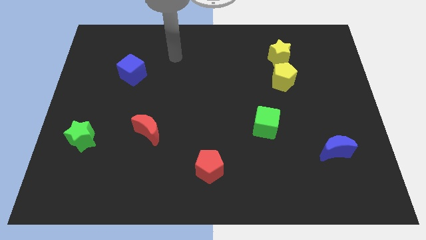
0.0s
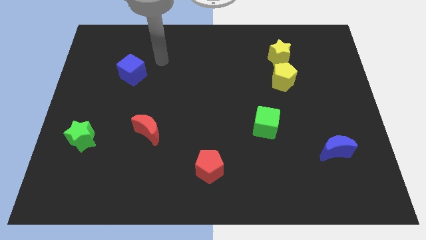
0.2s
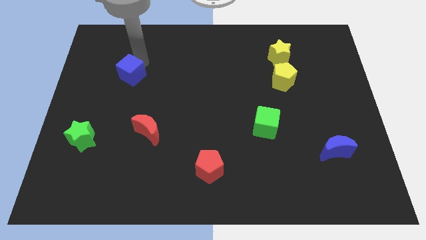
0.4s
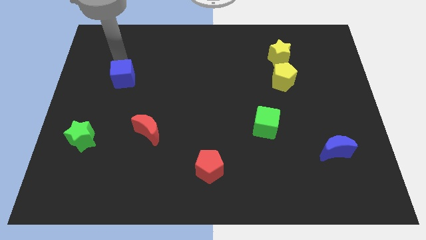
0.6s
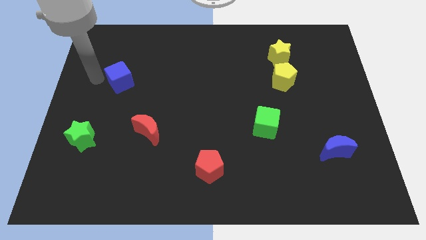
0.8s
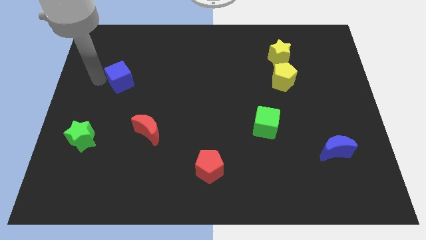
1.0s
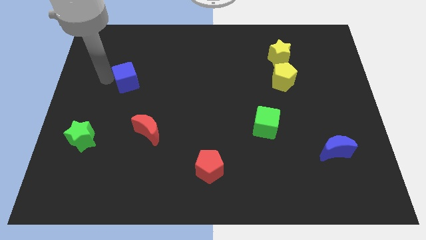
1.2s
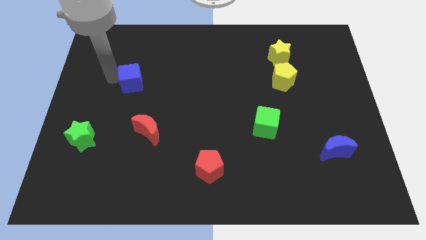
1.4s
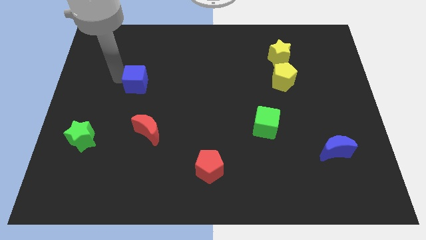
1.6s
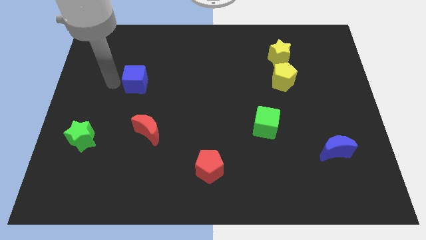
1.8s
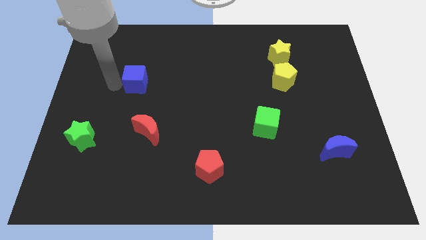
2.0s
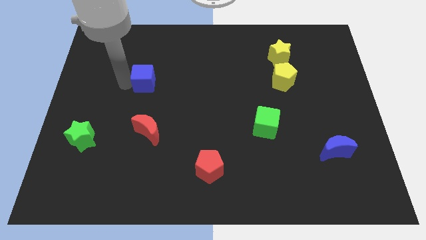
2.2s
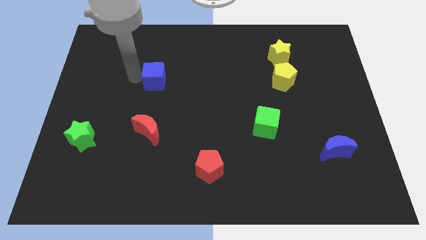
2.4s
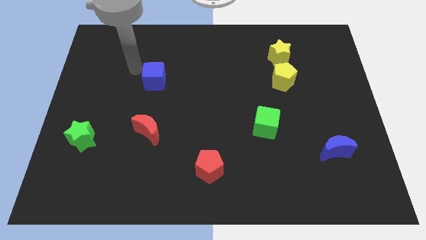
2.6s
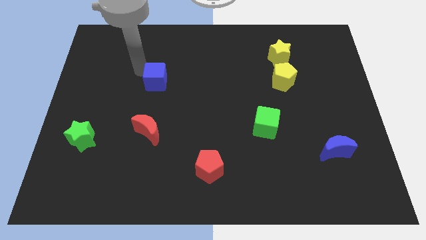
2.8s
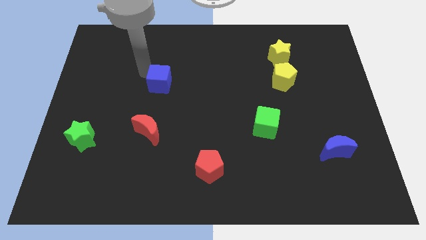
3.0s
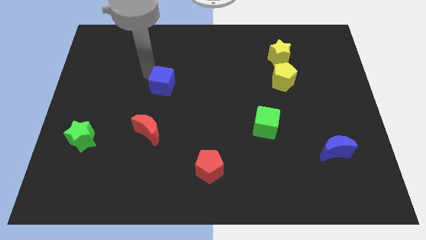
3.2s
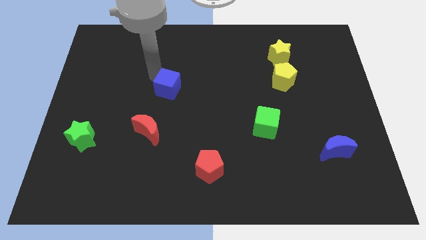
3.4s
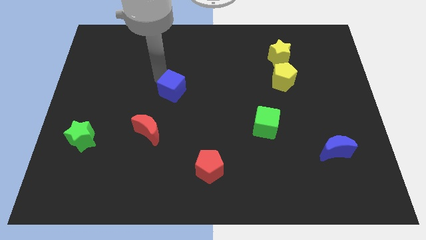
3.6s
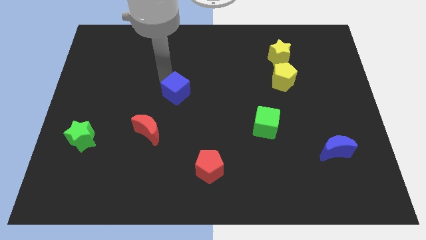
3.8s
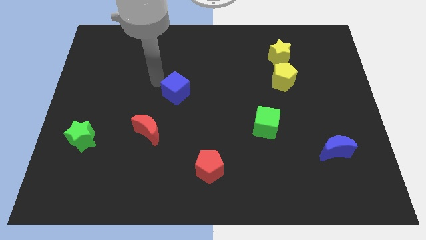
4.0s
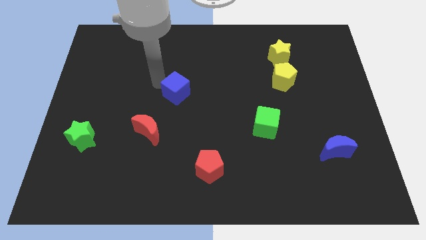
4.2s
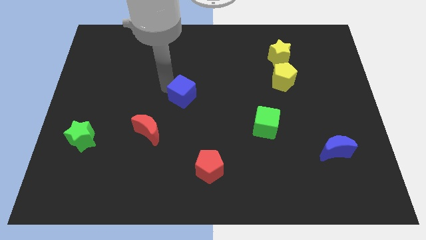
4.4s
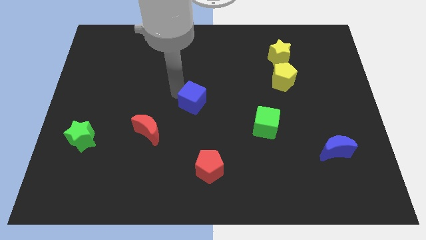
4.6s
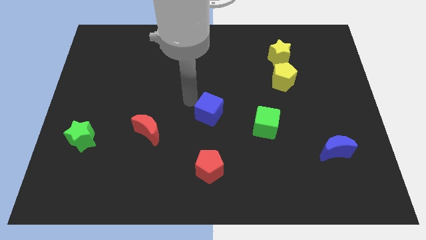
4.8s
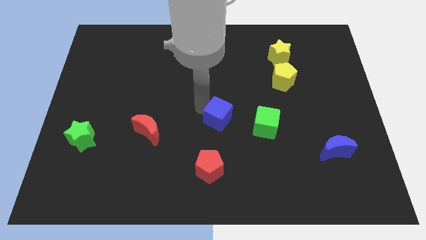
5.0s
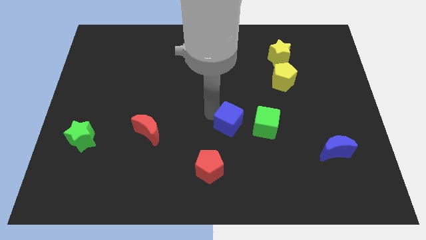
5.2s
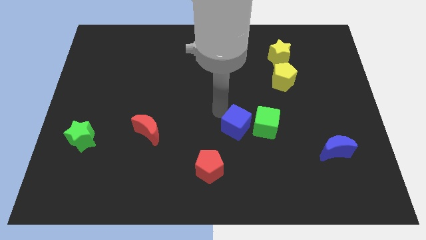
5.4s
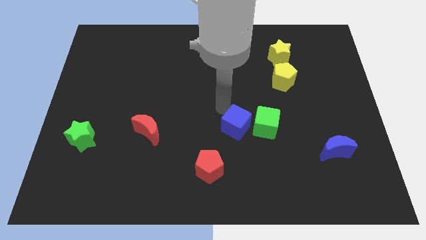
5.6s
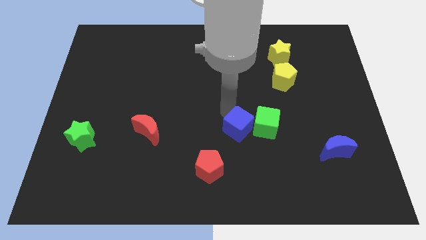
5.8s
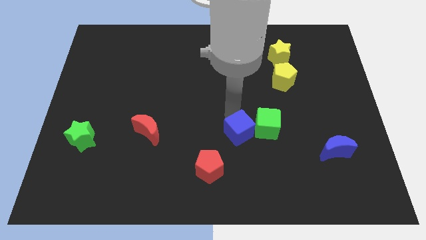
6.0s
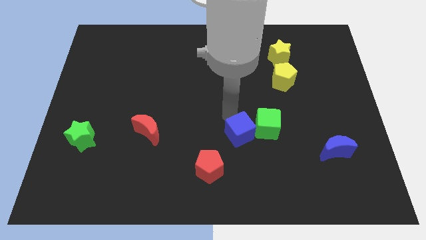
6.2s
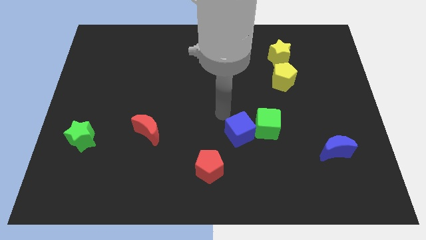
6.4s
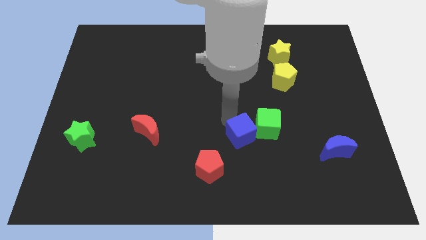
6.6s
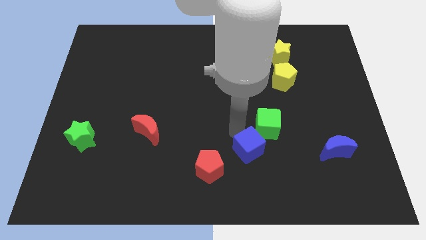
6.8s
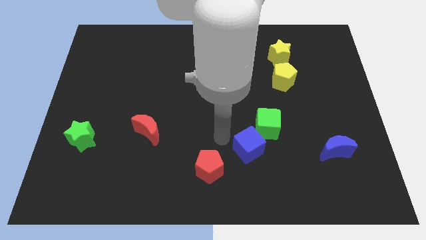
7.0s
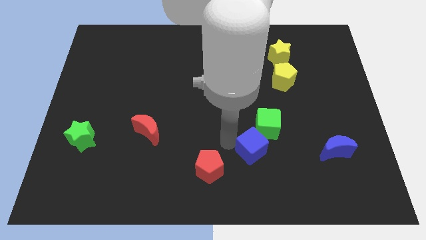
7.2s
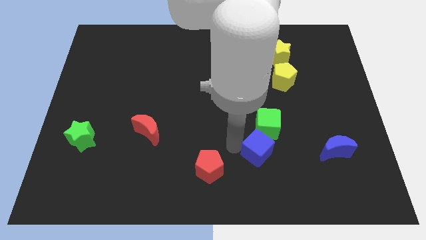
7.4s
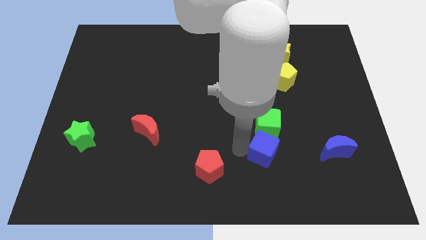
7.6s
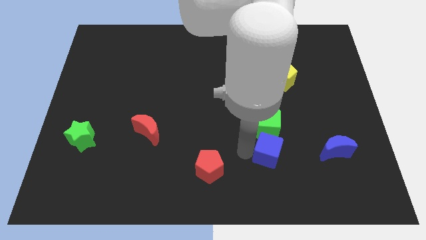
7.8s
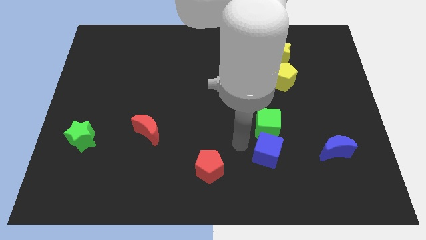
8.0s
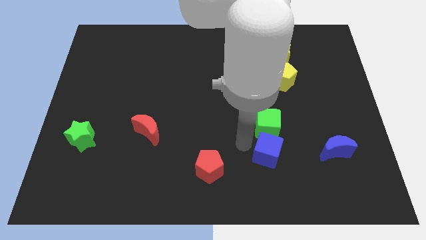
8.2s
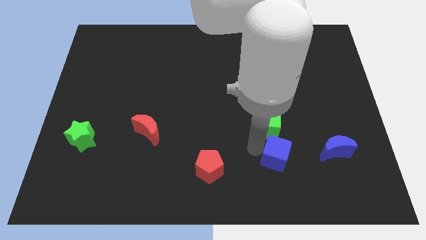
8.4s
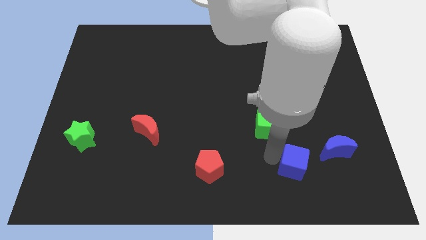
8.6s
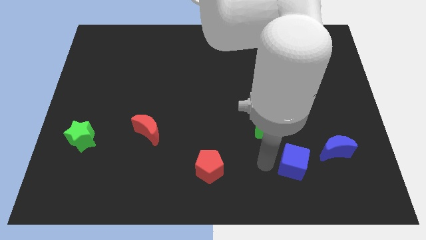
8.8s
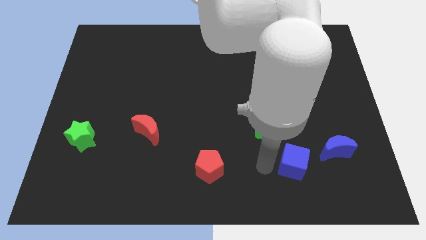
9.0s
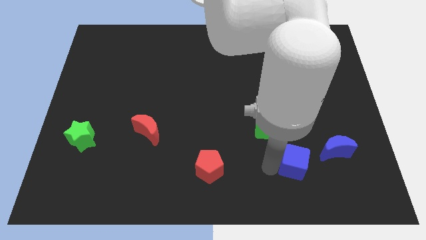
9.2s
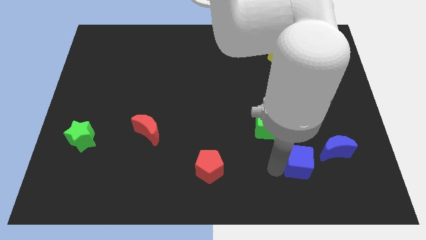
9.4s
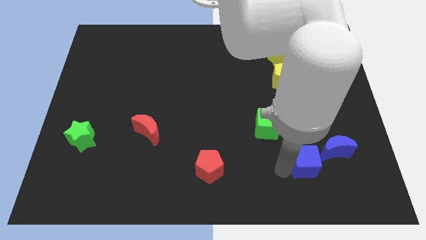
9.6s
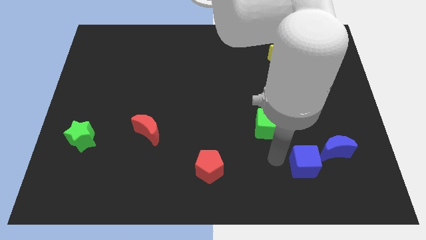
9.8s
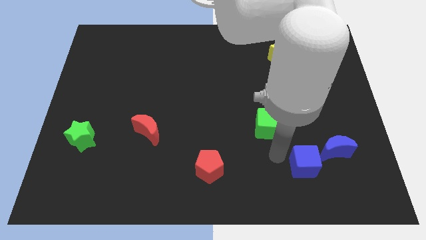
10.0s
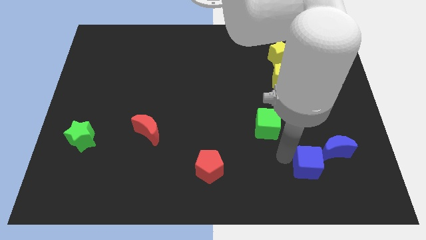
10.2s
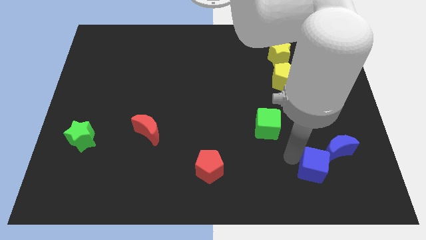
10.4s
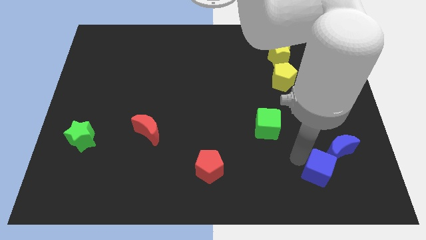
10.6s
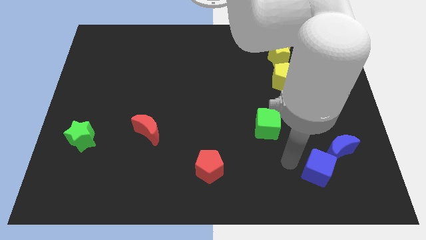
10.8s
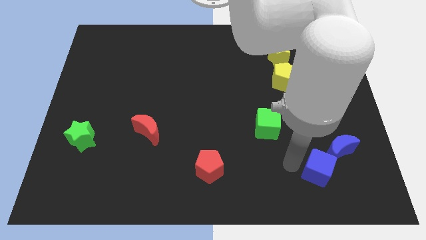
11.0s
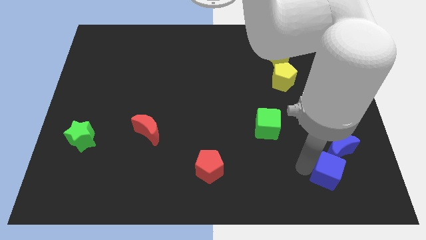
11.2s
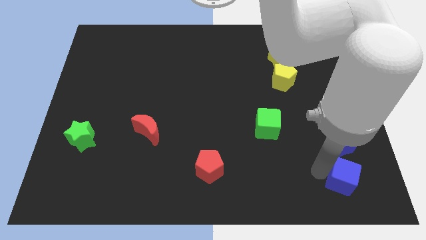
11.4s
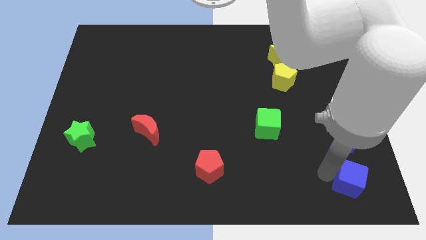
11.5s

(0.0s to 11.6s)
push the blue cube to the bottom right
